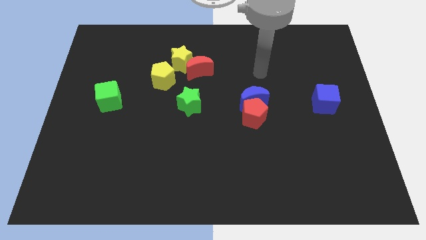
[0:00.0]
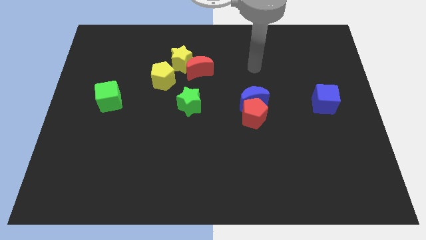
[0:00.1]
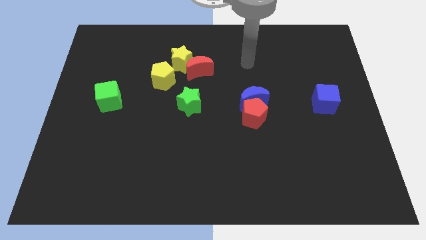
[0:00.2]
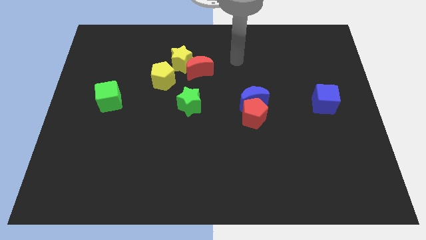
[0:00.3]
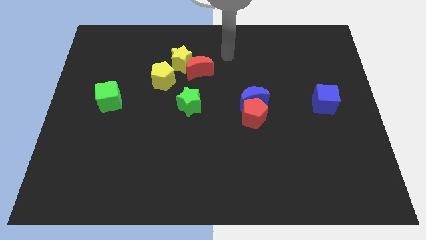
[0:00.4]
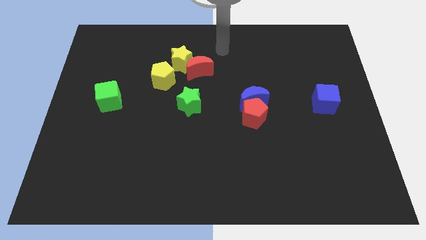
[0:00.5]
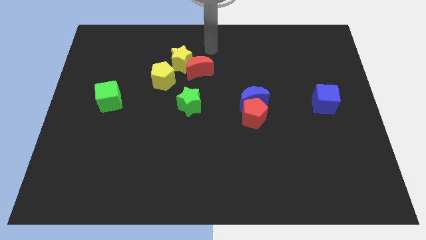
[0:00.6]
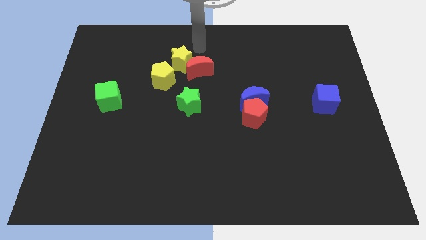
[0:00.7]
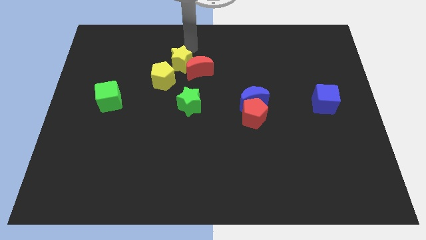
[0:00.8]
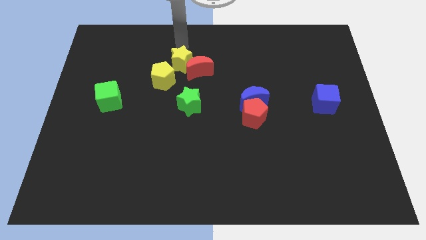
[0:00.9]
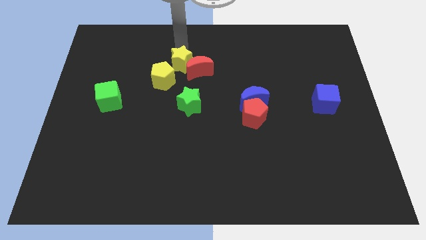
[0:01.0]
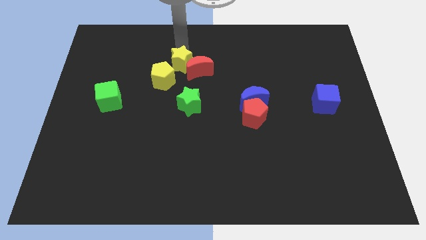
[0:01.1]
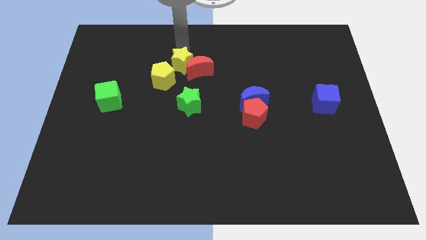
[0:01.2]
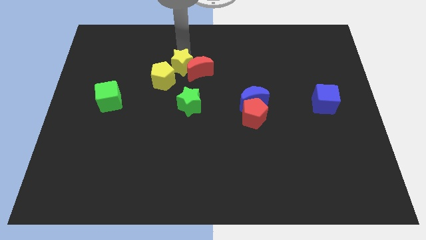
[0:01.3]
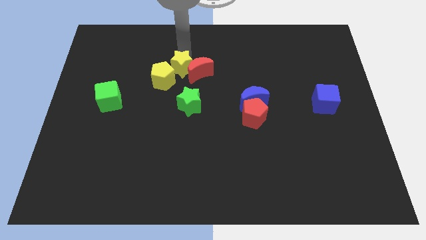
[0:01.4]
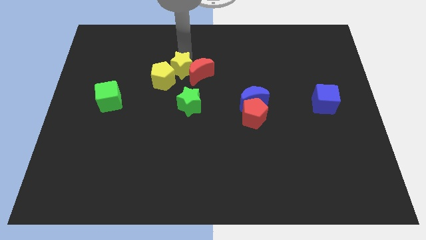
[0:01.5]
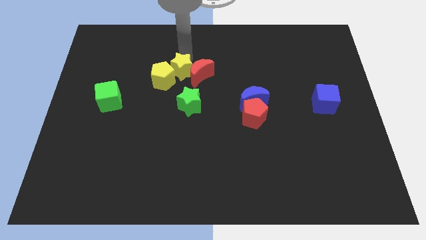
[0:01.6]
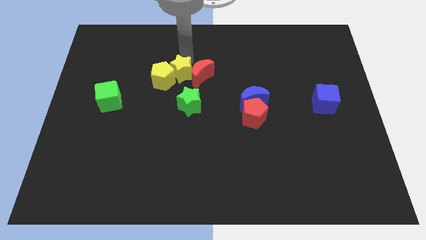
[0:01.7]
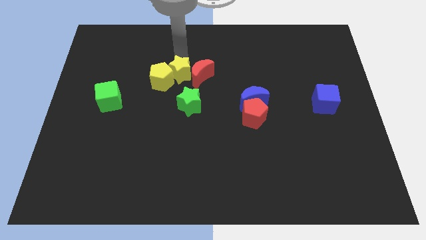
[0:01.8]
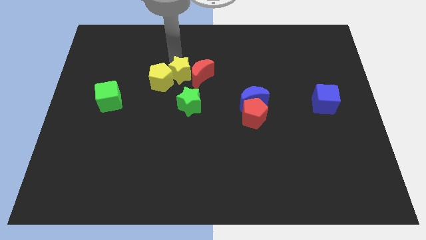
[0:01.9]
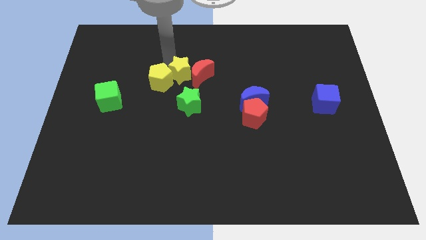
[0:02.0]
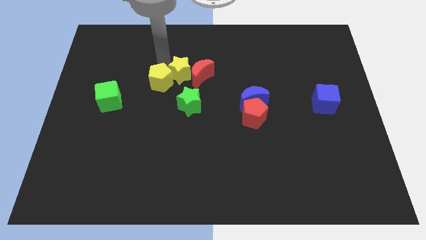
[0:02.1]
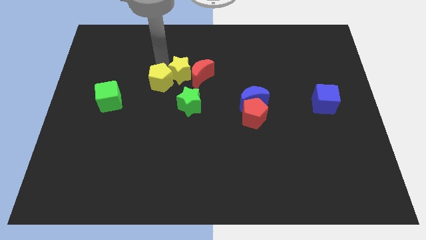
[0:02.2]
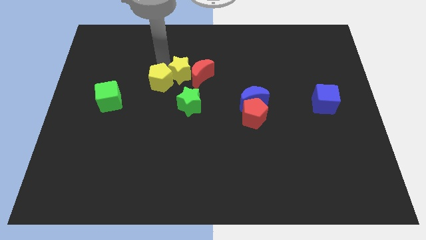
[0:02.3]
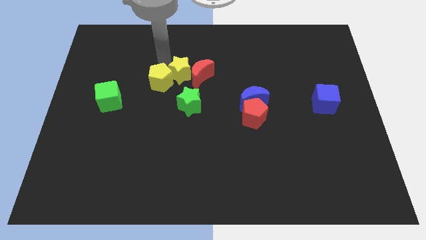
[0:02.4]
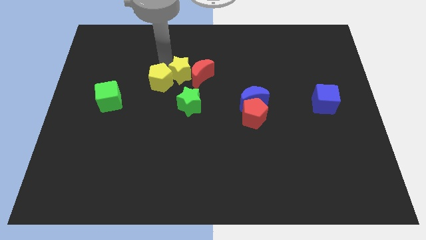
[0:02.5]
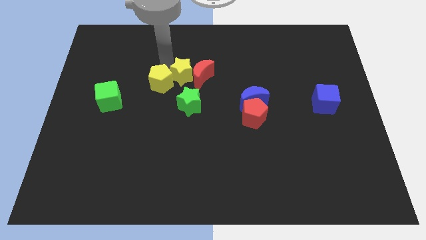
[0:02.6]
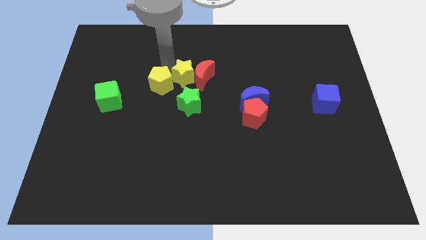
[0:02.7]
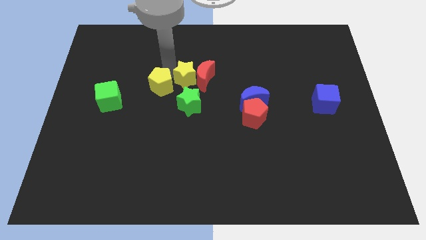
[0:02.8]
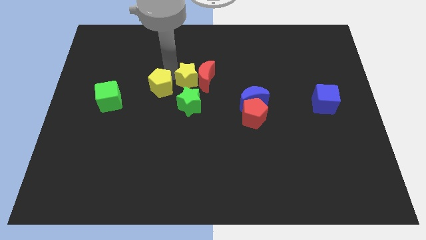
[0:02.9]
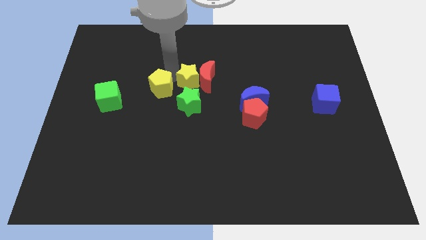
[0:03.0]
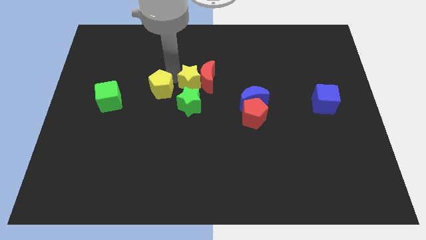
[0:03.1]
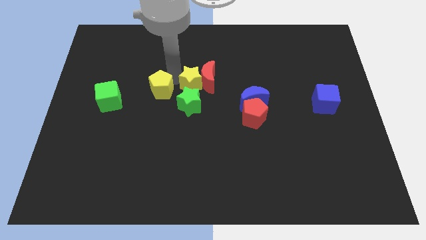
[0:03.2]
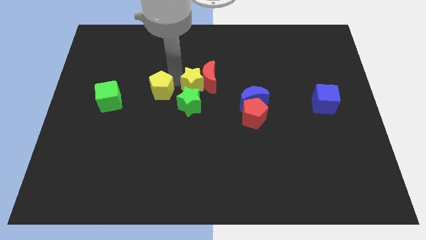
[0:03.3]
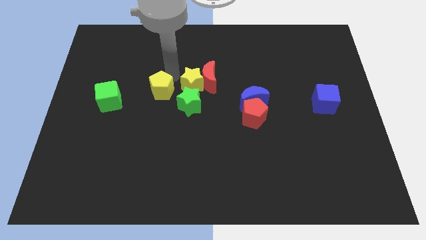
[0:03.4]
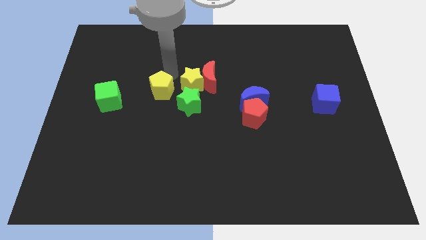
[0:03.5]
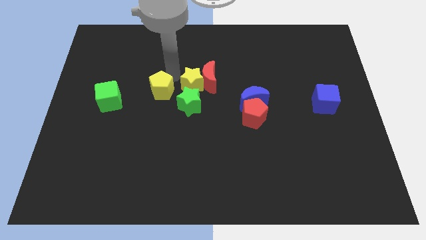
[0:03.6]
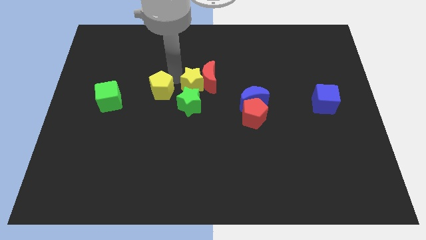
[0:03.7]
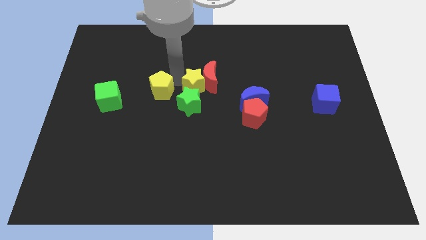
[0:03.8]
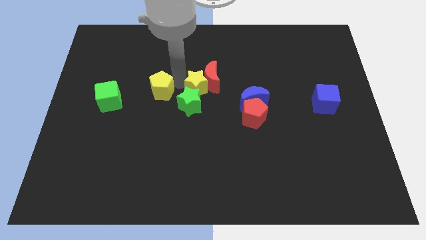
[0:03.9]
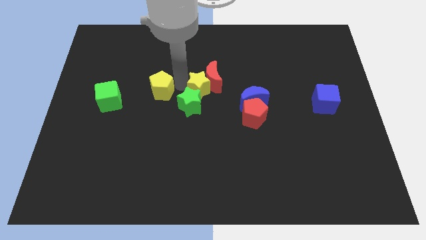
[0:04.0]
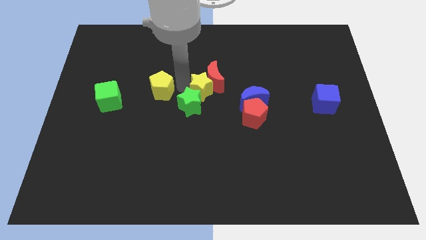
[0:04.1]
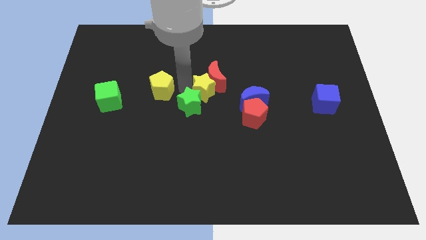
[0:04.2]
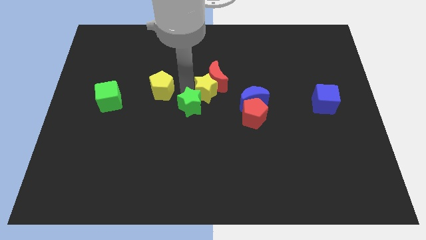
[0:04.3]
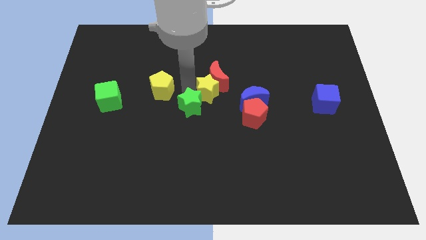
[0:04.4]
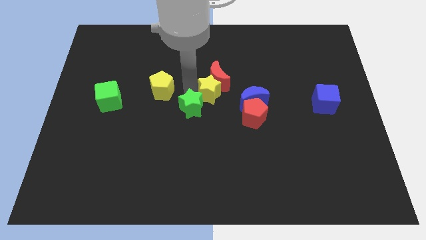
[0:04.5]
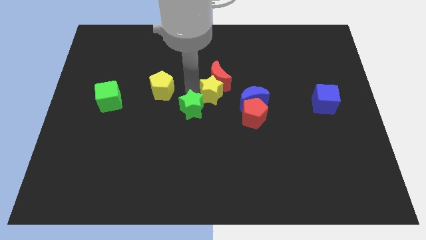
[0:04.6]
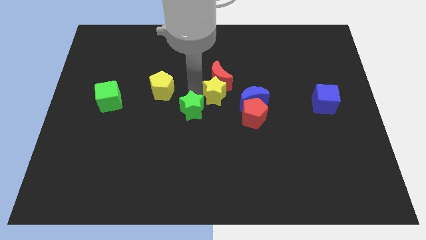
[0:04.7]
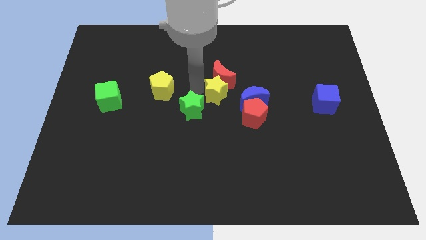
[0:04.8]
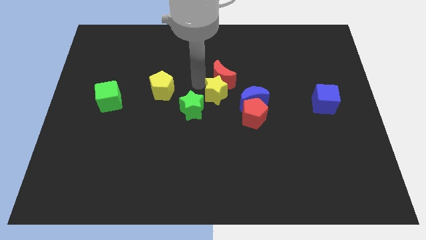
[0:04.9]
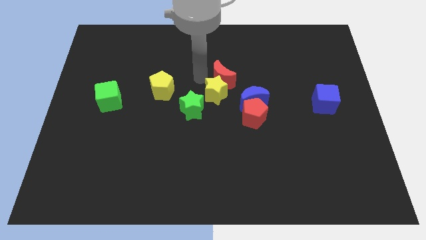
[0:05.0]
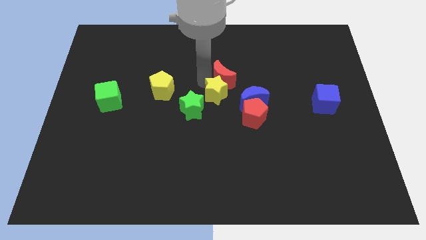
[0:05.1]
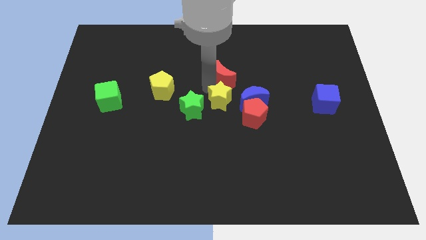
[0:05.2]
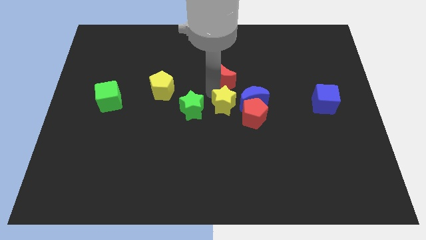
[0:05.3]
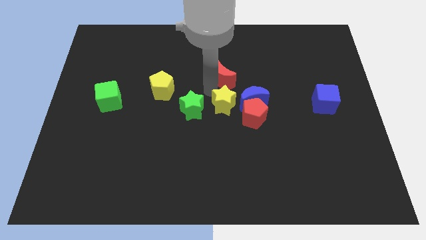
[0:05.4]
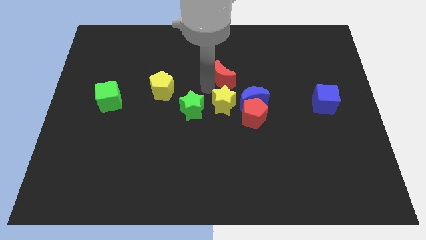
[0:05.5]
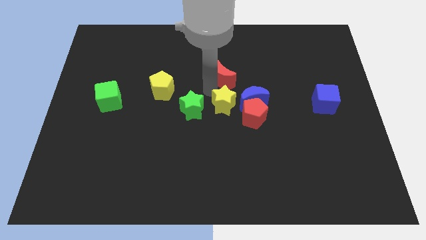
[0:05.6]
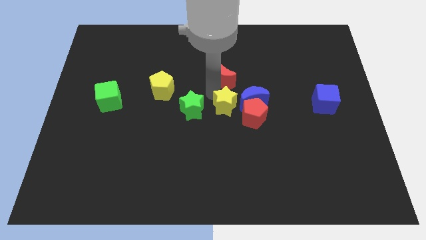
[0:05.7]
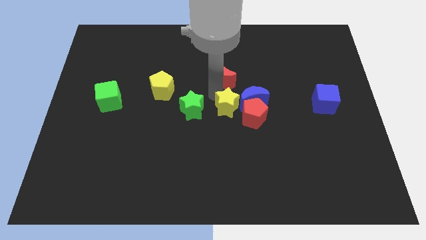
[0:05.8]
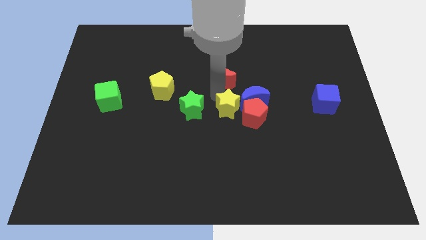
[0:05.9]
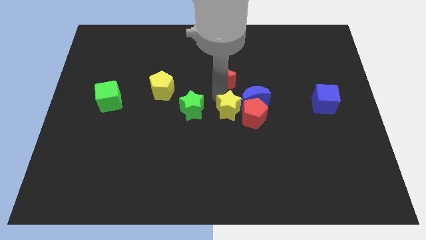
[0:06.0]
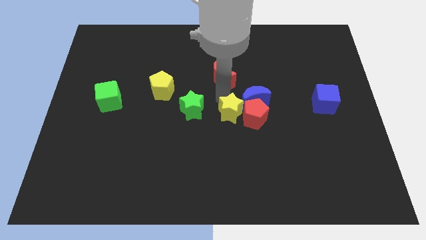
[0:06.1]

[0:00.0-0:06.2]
push the yellow star downwards and right

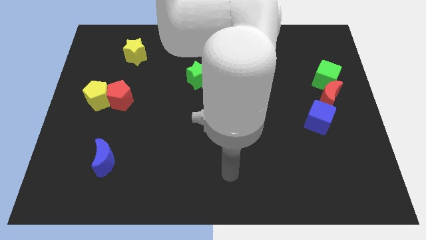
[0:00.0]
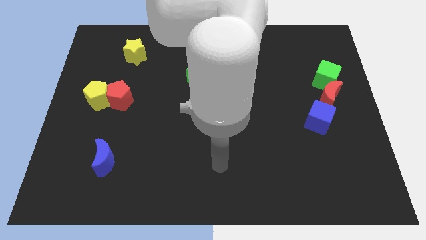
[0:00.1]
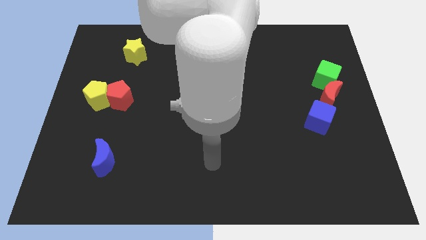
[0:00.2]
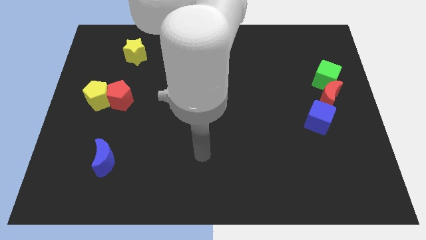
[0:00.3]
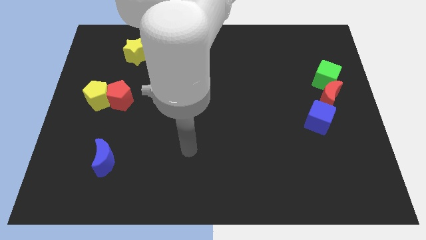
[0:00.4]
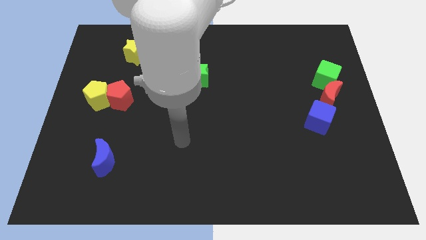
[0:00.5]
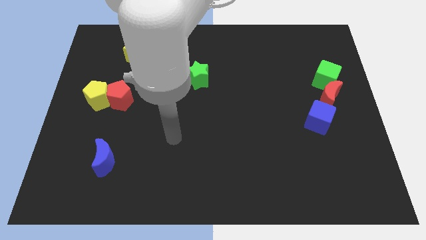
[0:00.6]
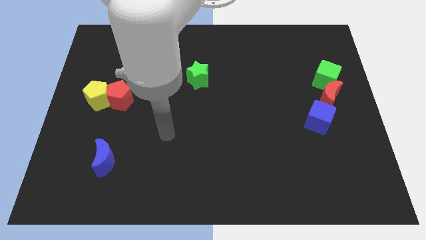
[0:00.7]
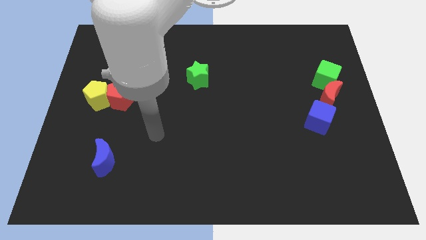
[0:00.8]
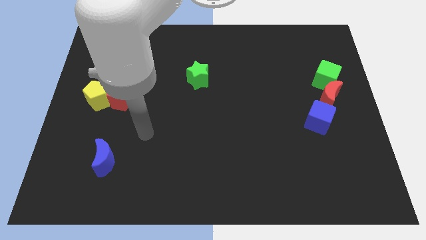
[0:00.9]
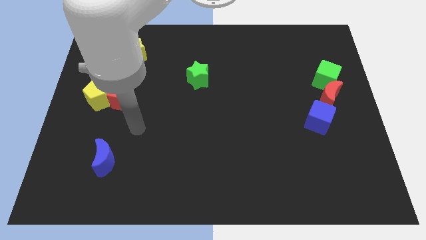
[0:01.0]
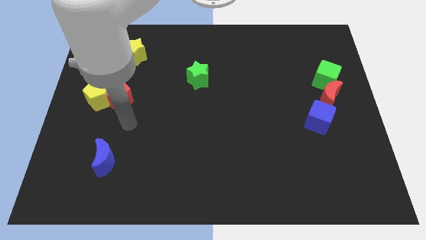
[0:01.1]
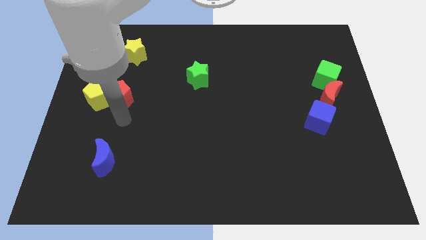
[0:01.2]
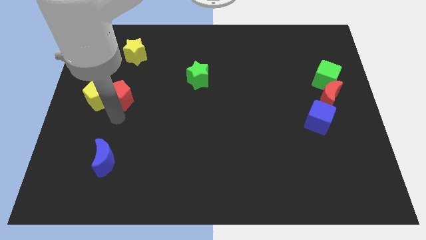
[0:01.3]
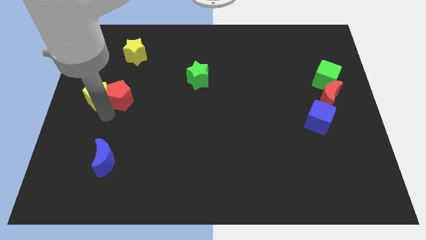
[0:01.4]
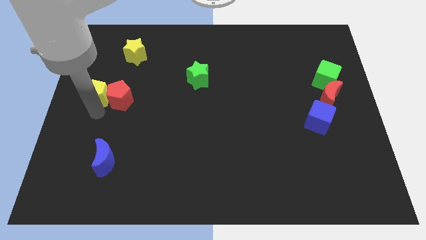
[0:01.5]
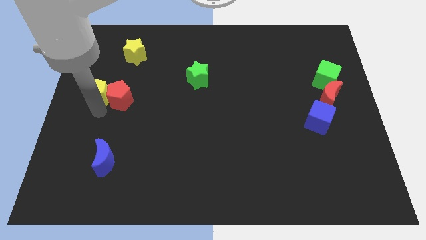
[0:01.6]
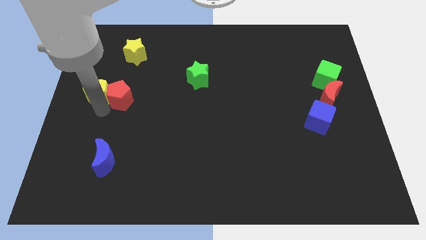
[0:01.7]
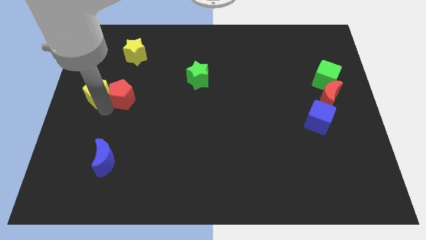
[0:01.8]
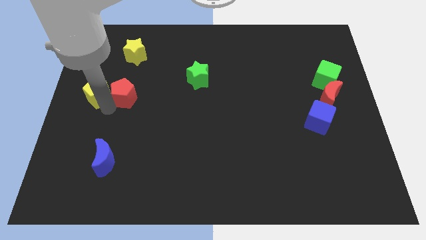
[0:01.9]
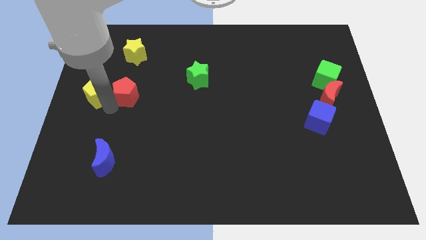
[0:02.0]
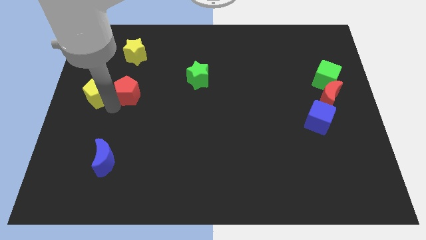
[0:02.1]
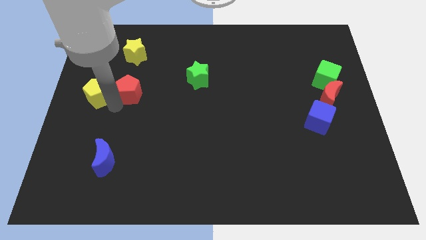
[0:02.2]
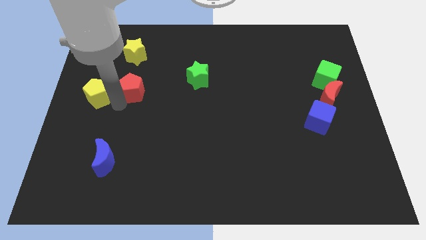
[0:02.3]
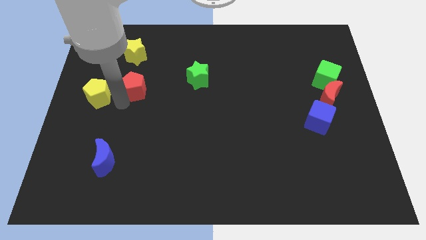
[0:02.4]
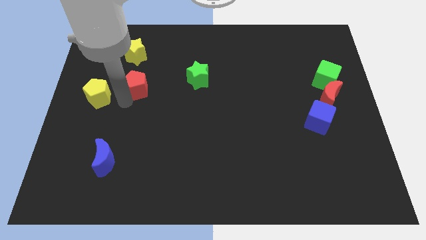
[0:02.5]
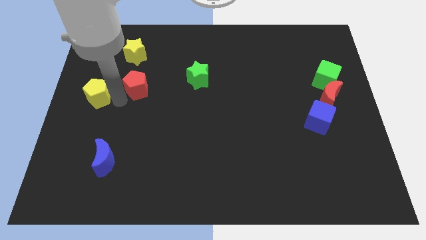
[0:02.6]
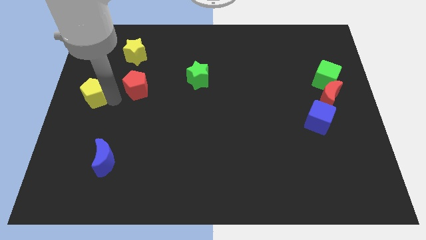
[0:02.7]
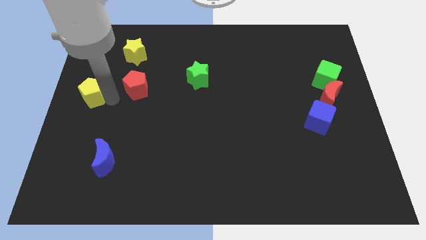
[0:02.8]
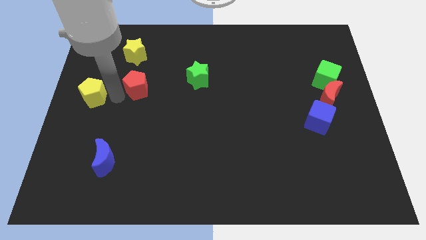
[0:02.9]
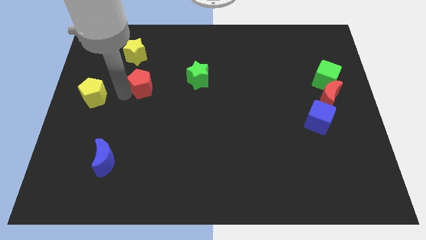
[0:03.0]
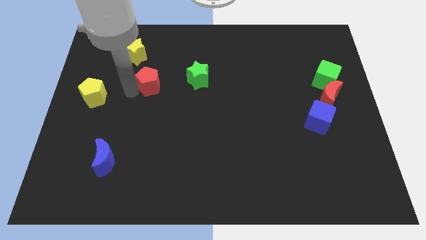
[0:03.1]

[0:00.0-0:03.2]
push the red pentagon up and to the right diagonally somewhat
